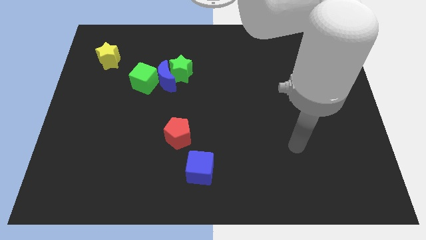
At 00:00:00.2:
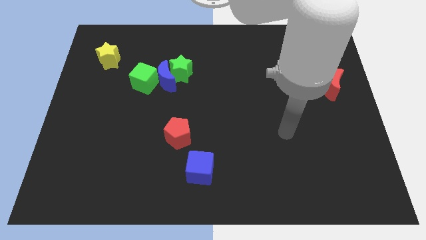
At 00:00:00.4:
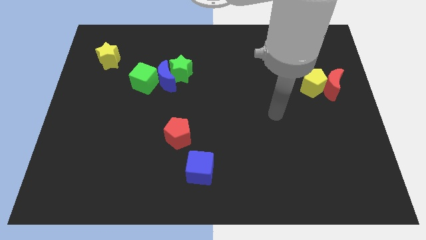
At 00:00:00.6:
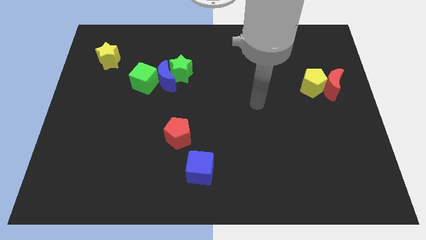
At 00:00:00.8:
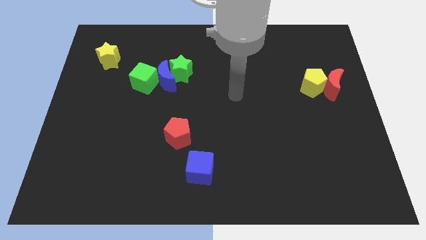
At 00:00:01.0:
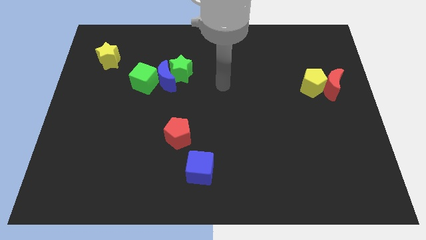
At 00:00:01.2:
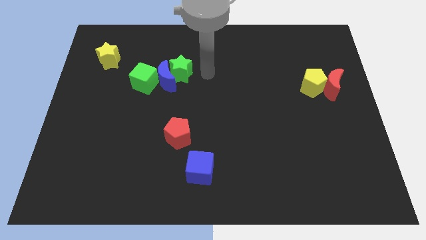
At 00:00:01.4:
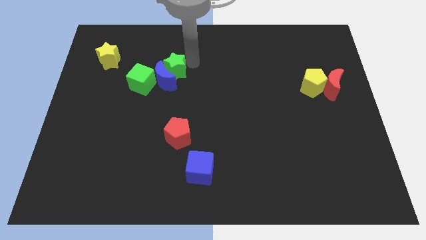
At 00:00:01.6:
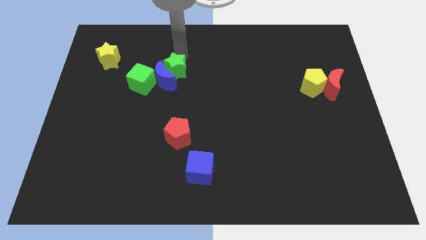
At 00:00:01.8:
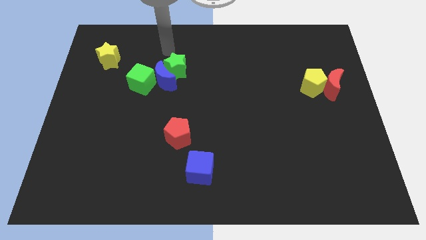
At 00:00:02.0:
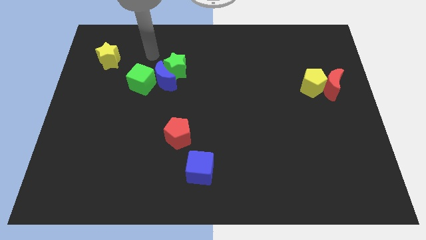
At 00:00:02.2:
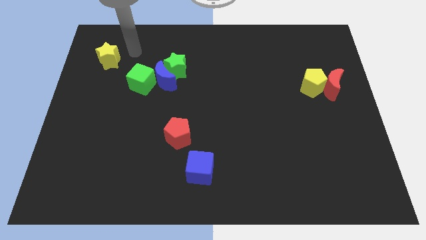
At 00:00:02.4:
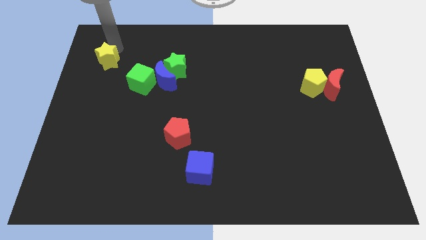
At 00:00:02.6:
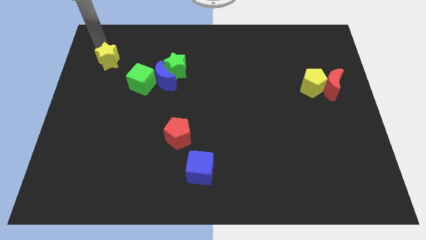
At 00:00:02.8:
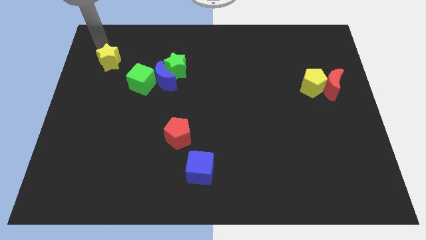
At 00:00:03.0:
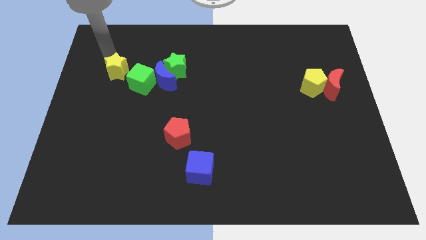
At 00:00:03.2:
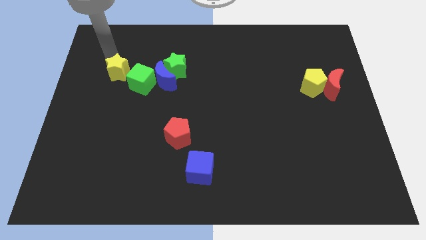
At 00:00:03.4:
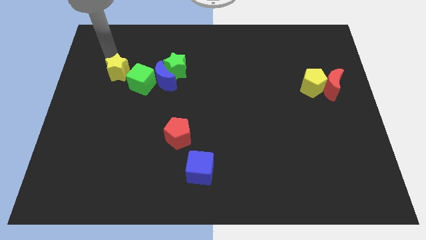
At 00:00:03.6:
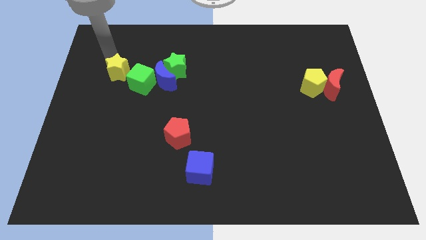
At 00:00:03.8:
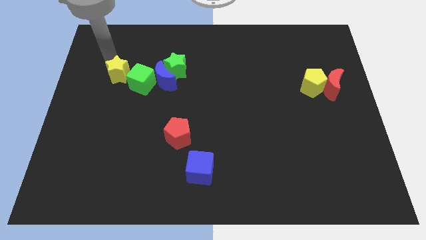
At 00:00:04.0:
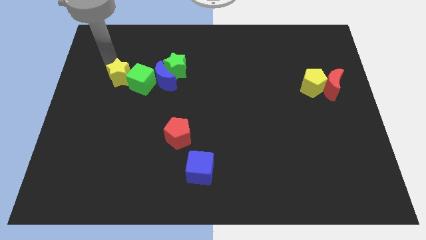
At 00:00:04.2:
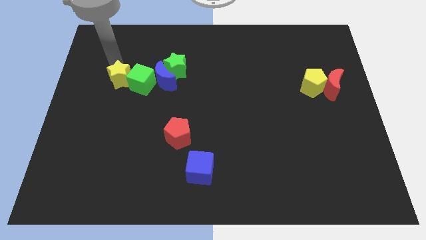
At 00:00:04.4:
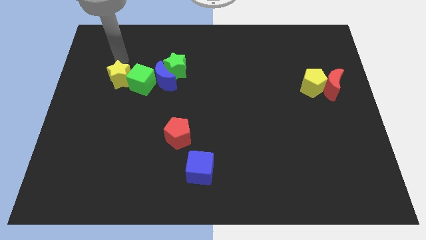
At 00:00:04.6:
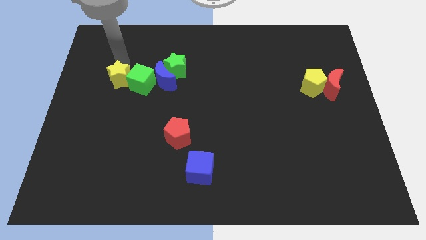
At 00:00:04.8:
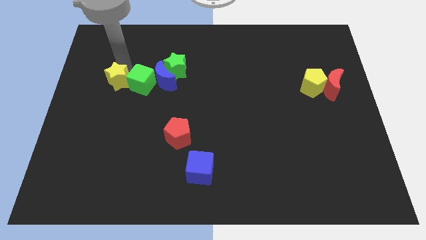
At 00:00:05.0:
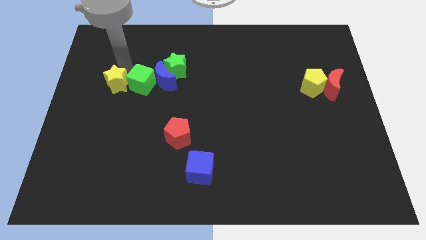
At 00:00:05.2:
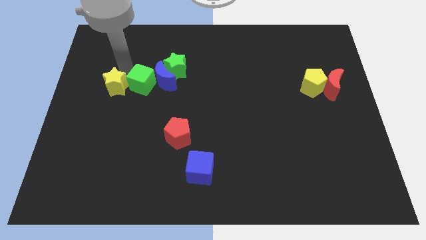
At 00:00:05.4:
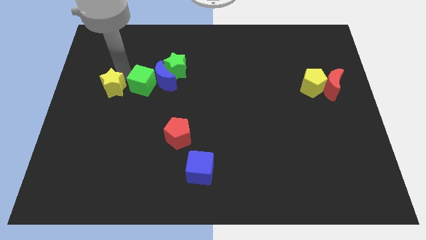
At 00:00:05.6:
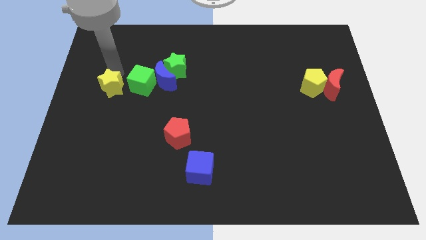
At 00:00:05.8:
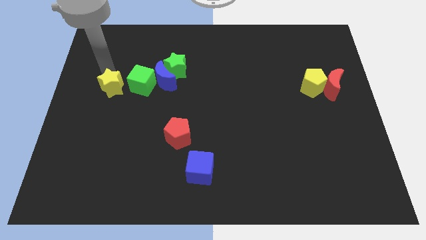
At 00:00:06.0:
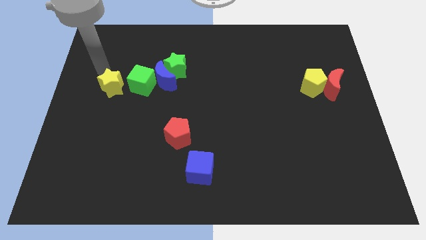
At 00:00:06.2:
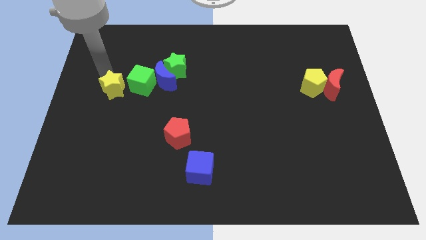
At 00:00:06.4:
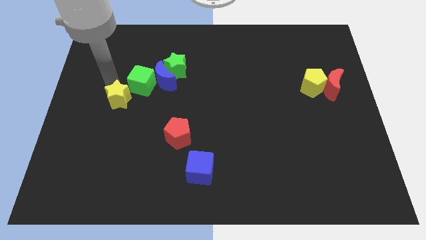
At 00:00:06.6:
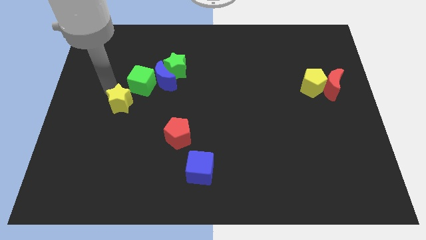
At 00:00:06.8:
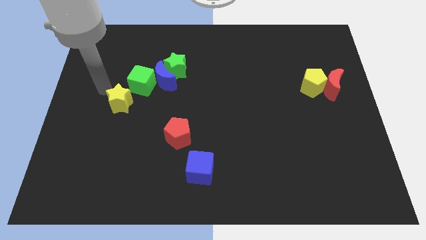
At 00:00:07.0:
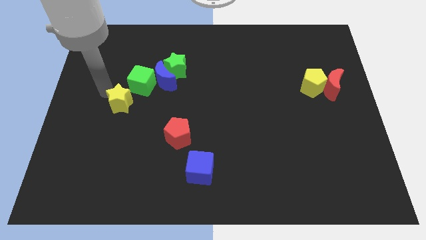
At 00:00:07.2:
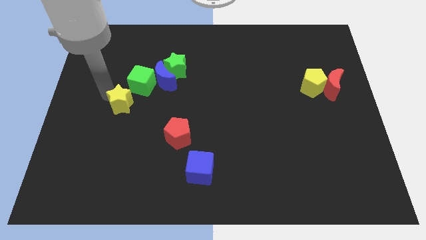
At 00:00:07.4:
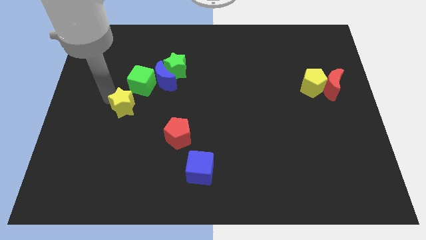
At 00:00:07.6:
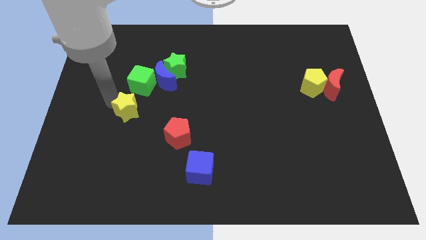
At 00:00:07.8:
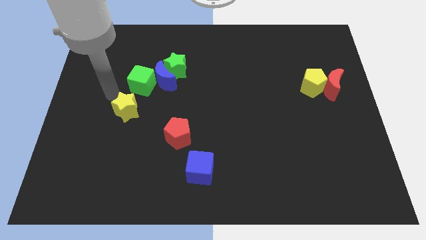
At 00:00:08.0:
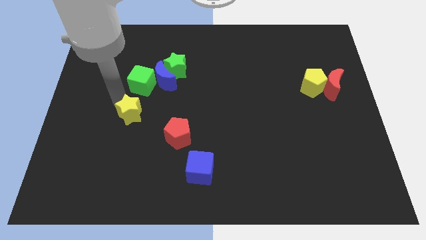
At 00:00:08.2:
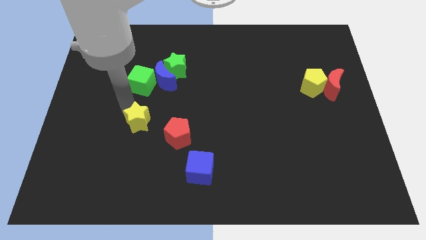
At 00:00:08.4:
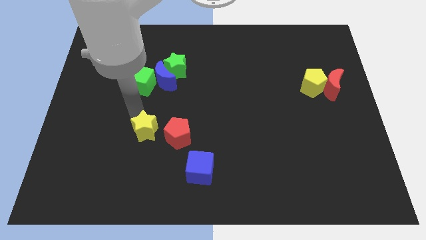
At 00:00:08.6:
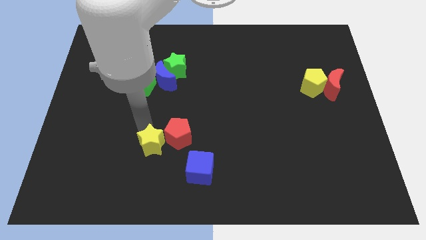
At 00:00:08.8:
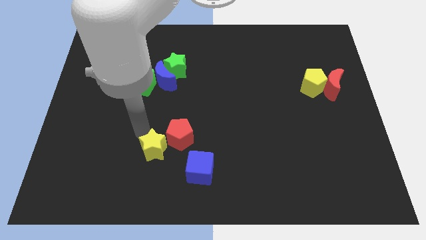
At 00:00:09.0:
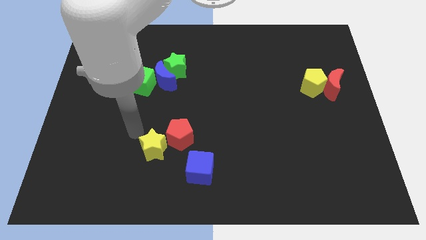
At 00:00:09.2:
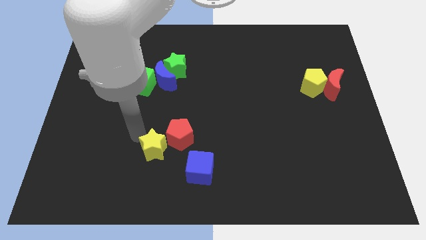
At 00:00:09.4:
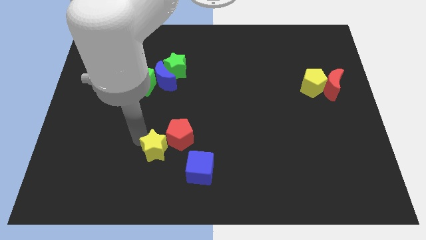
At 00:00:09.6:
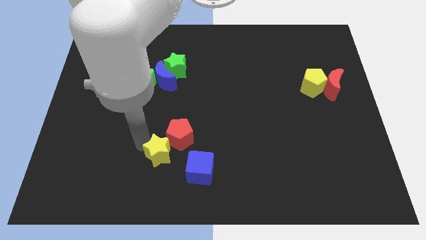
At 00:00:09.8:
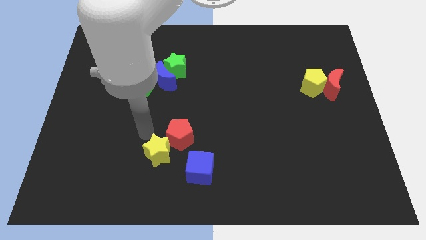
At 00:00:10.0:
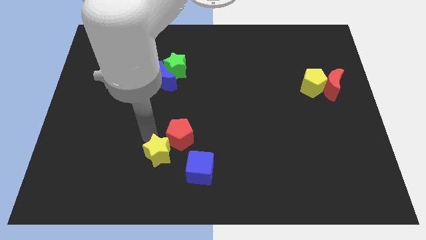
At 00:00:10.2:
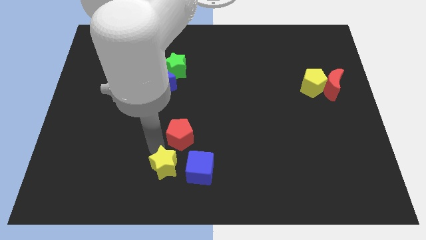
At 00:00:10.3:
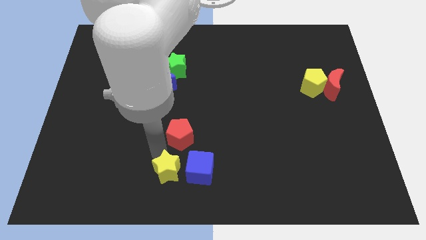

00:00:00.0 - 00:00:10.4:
push the yellow star to the bottom side

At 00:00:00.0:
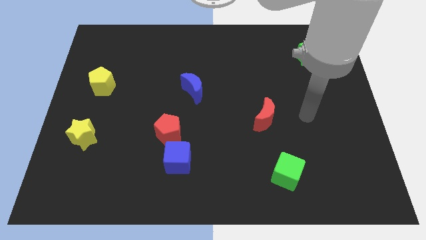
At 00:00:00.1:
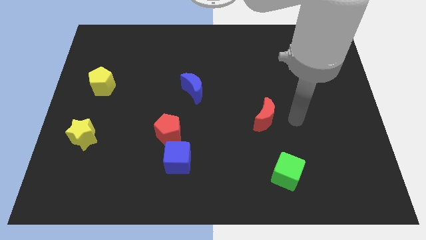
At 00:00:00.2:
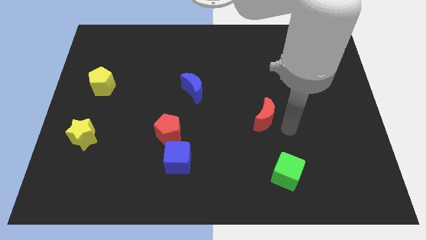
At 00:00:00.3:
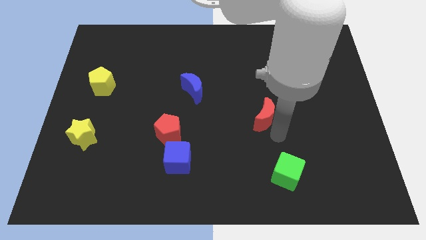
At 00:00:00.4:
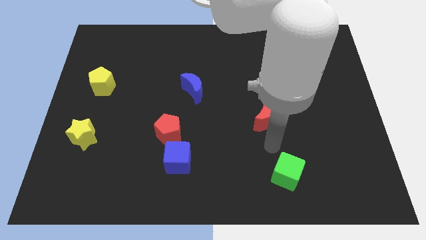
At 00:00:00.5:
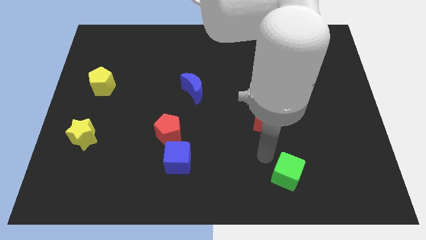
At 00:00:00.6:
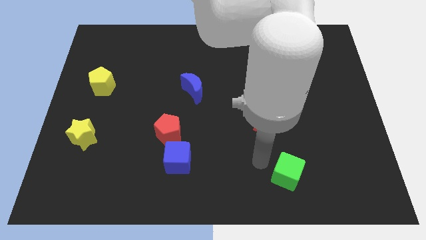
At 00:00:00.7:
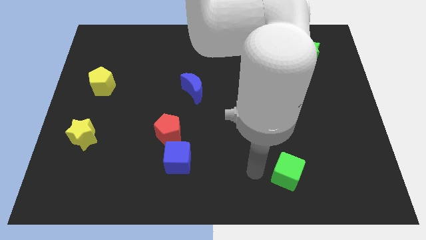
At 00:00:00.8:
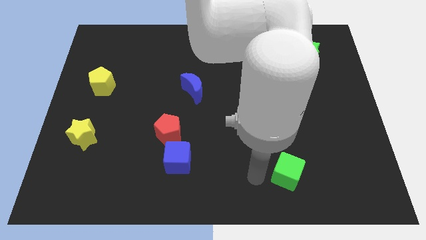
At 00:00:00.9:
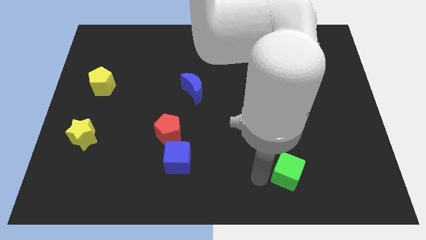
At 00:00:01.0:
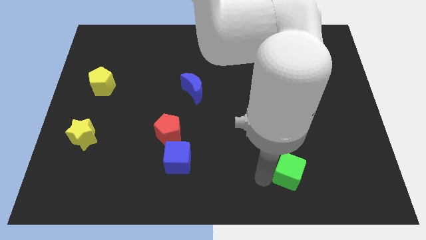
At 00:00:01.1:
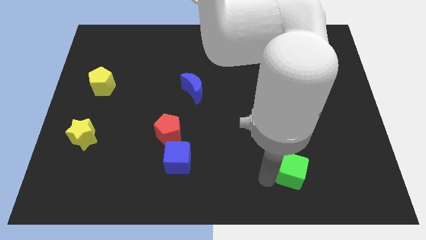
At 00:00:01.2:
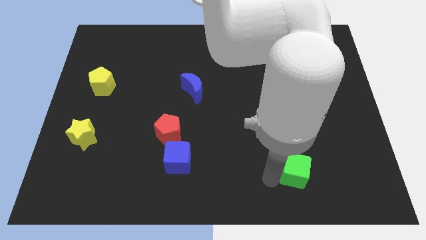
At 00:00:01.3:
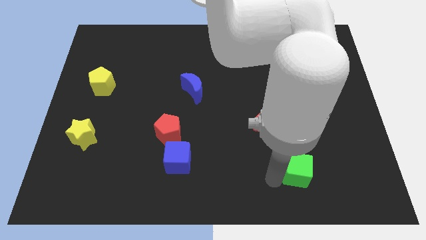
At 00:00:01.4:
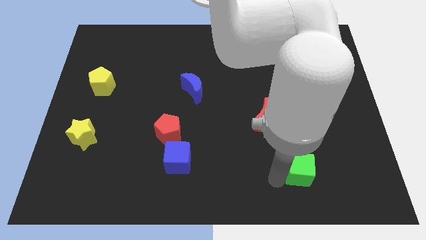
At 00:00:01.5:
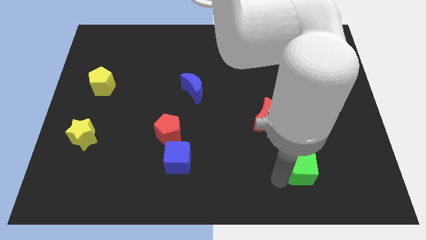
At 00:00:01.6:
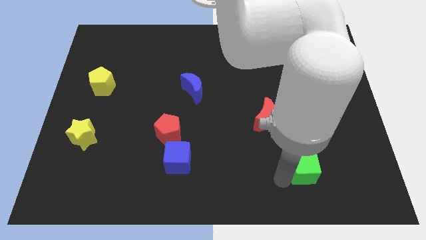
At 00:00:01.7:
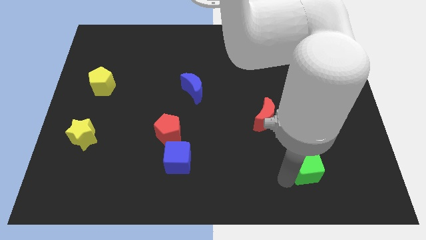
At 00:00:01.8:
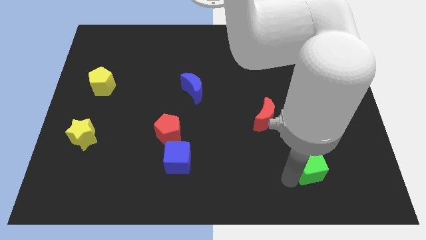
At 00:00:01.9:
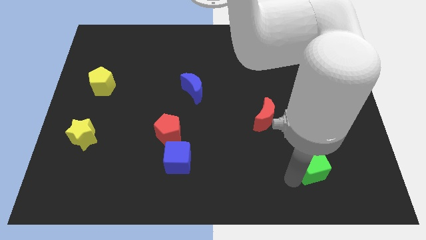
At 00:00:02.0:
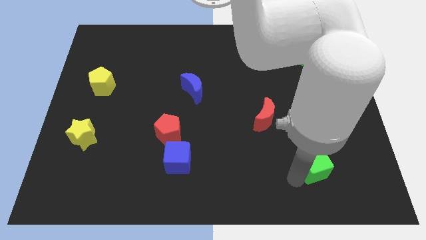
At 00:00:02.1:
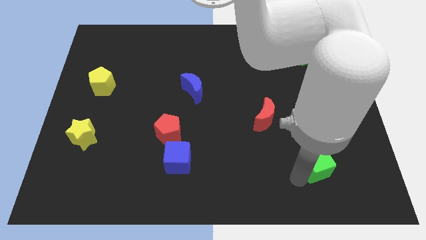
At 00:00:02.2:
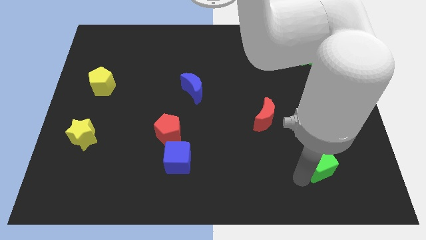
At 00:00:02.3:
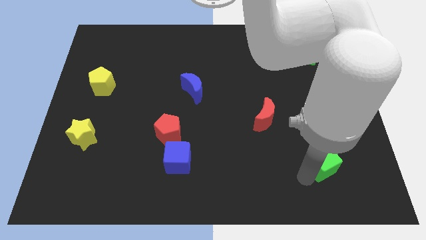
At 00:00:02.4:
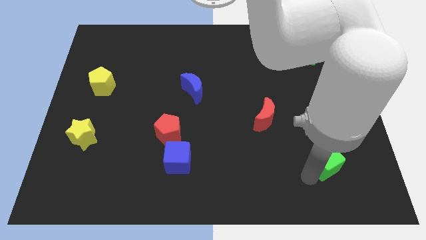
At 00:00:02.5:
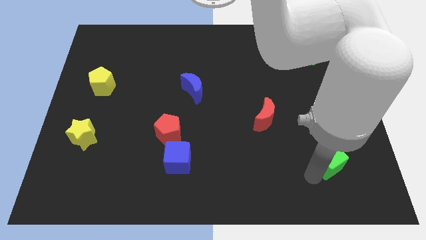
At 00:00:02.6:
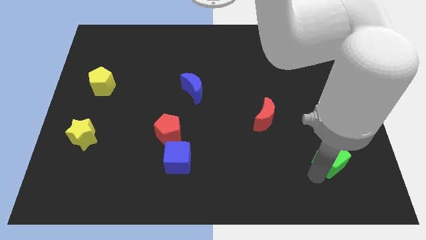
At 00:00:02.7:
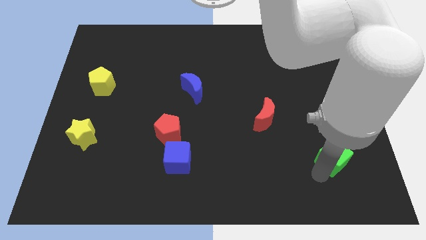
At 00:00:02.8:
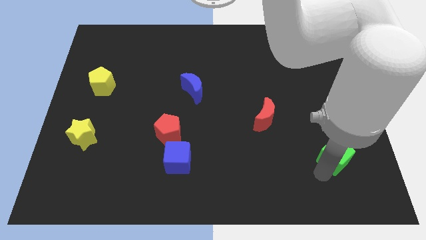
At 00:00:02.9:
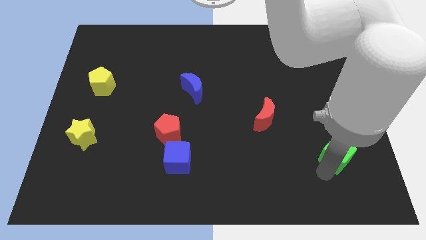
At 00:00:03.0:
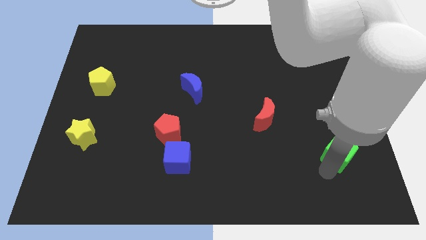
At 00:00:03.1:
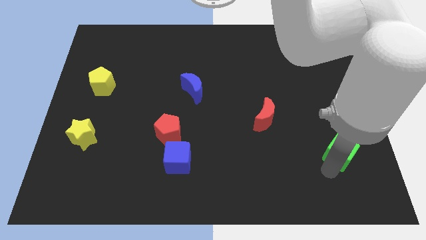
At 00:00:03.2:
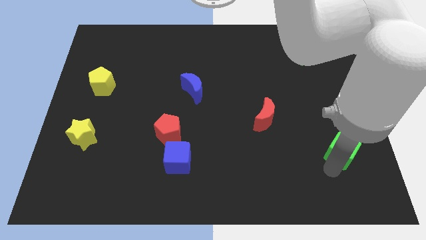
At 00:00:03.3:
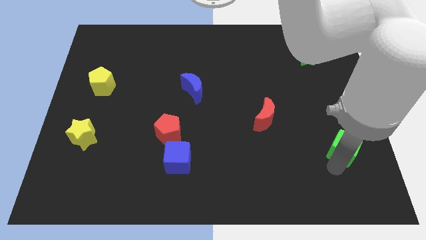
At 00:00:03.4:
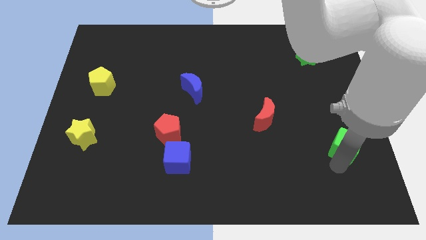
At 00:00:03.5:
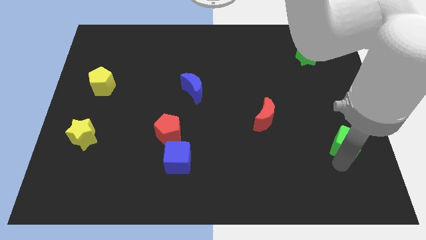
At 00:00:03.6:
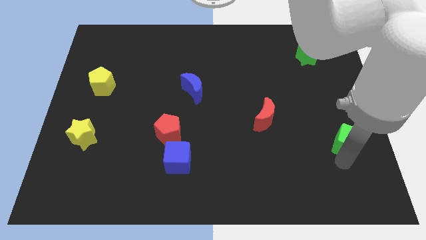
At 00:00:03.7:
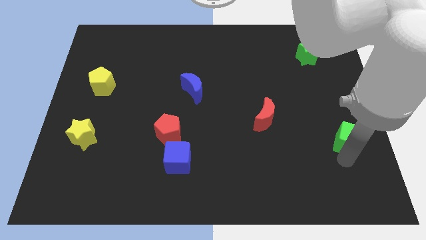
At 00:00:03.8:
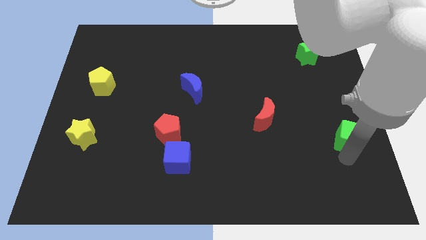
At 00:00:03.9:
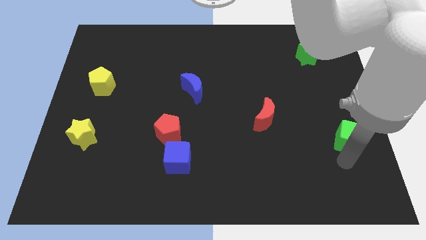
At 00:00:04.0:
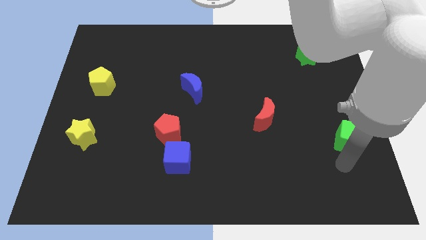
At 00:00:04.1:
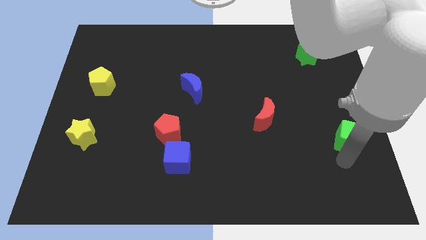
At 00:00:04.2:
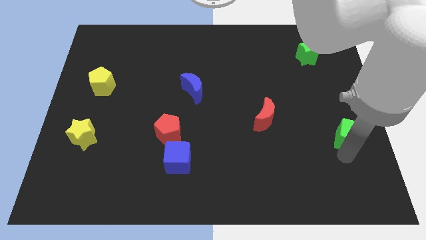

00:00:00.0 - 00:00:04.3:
put the green cube to the right side of the board
